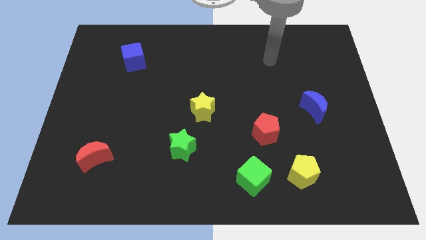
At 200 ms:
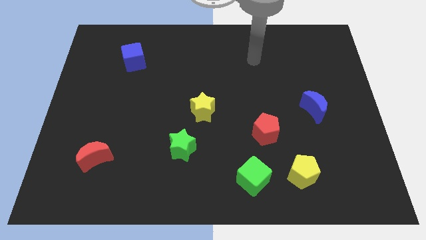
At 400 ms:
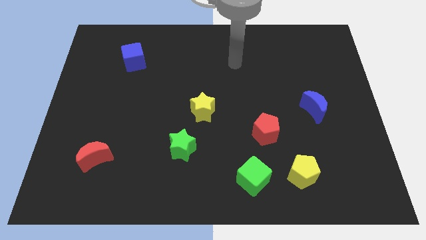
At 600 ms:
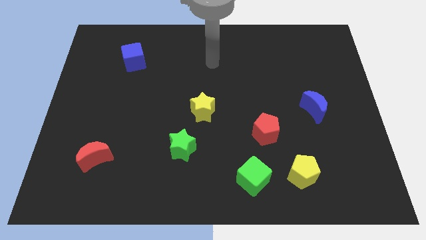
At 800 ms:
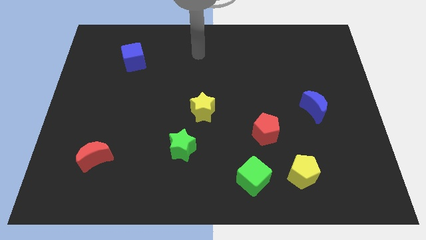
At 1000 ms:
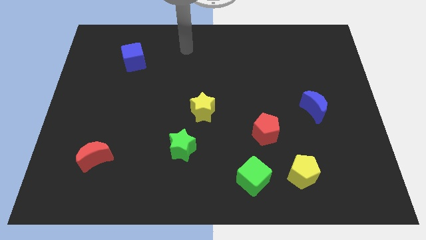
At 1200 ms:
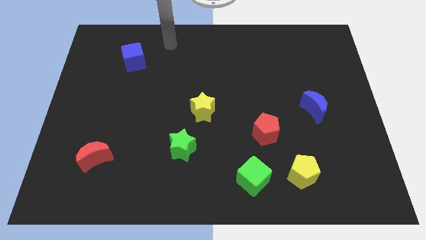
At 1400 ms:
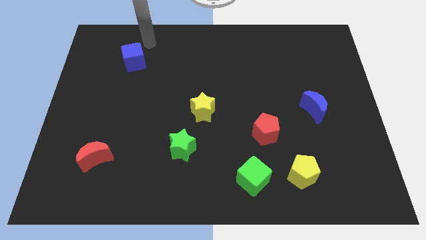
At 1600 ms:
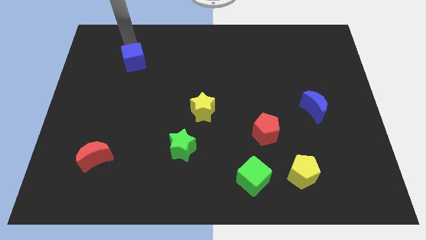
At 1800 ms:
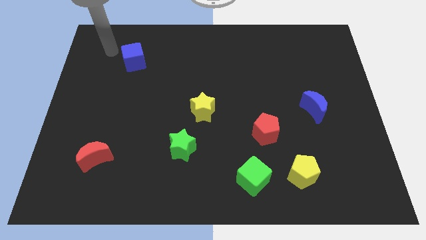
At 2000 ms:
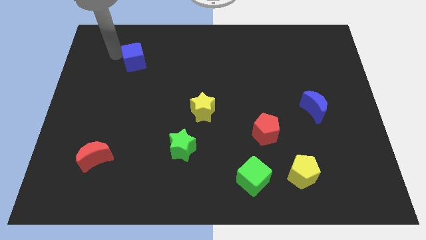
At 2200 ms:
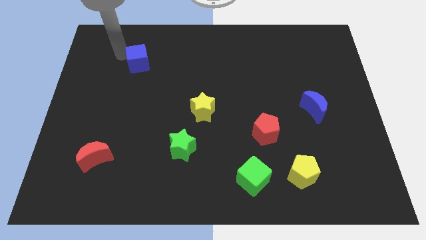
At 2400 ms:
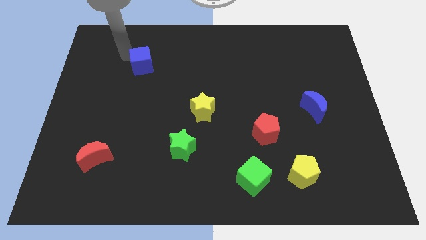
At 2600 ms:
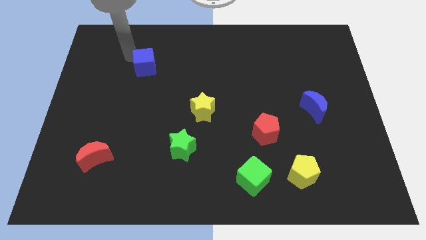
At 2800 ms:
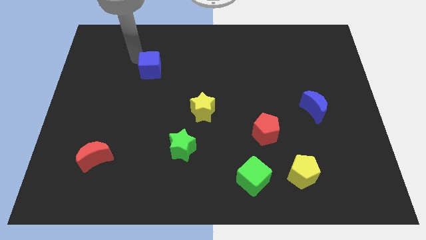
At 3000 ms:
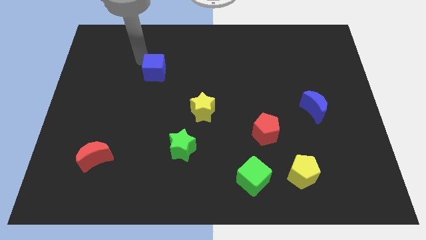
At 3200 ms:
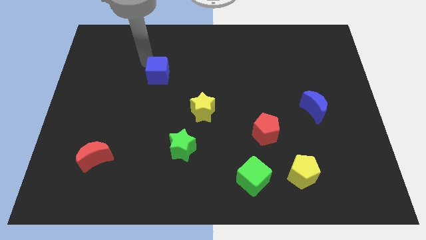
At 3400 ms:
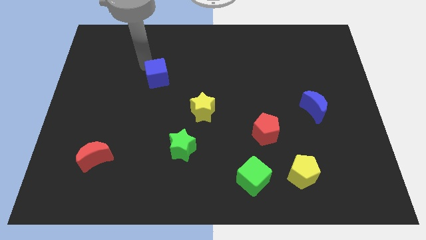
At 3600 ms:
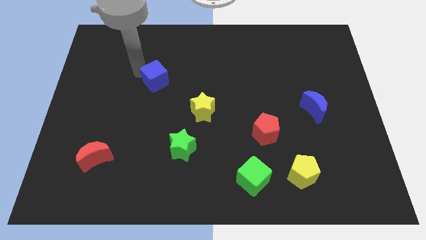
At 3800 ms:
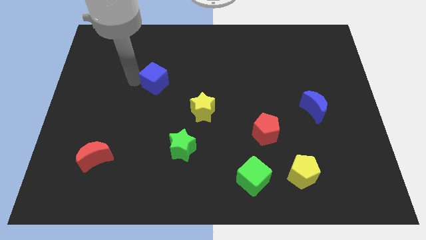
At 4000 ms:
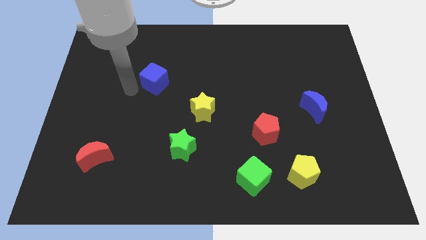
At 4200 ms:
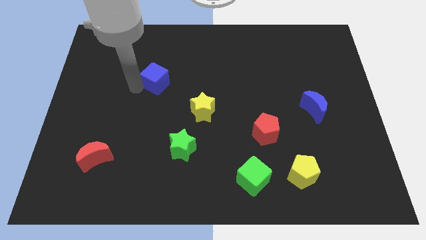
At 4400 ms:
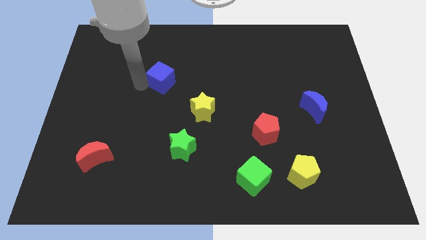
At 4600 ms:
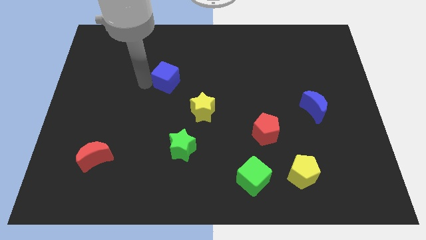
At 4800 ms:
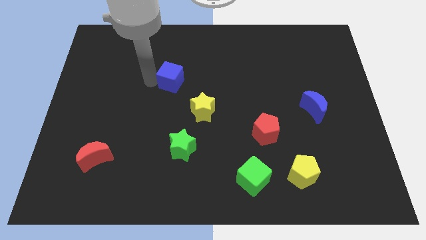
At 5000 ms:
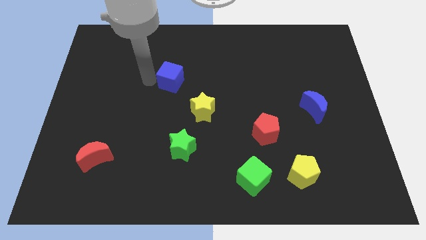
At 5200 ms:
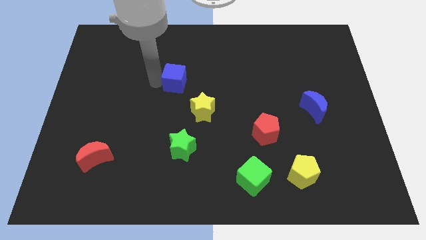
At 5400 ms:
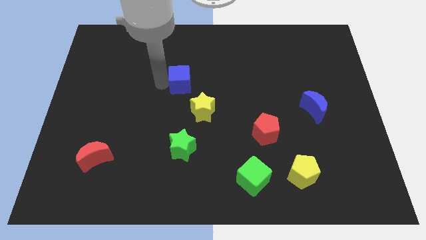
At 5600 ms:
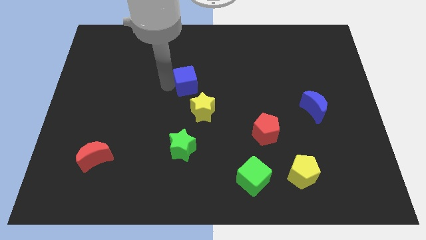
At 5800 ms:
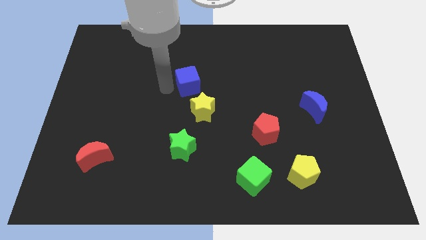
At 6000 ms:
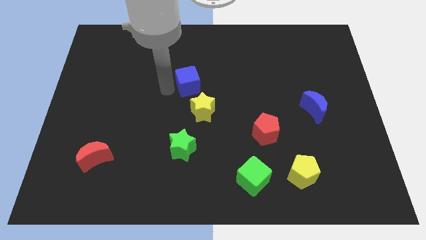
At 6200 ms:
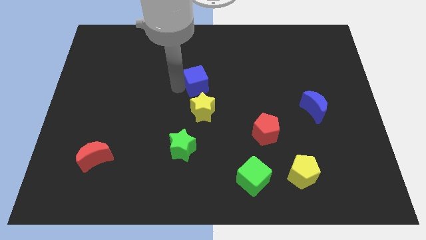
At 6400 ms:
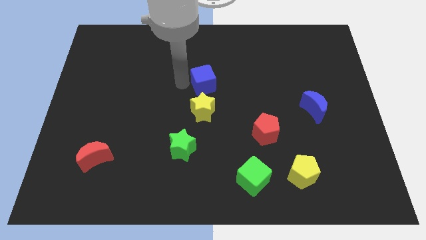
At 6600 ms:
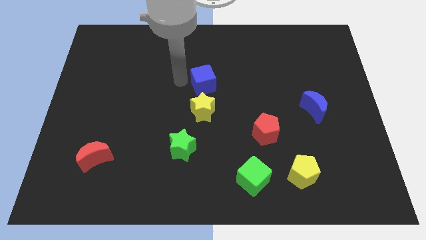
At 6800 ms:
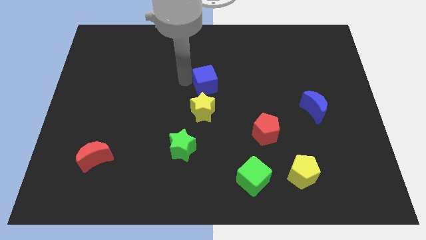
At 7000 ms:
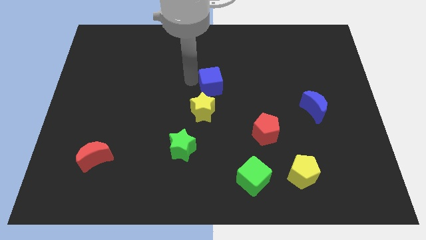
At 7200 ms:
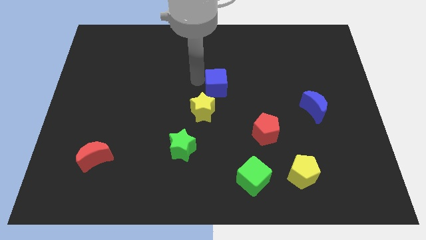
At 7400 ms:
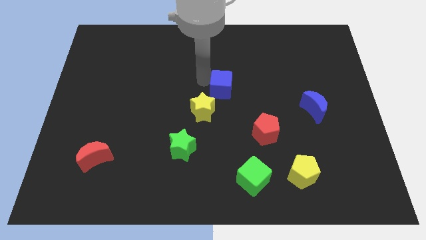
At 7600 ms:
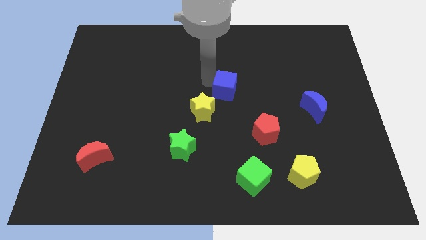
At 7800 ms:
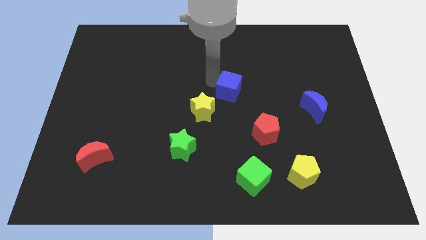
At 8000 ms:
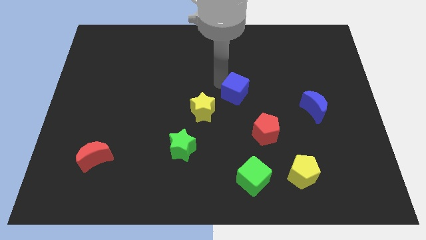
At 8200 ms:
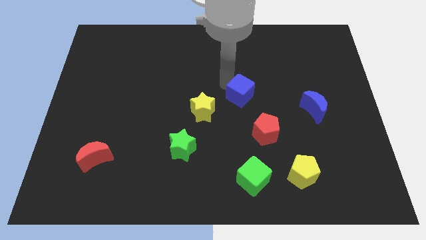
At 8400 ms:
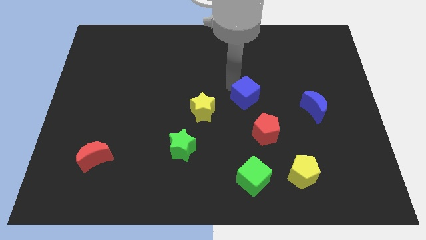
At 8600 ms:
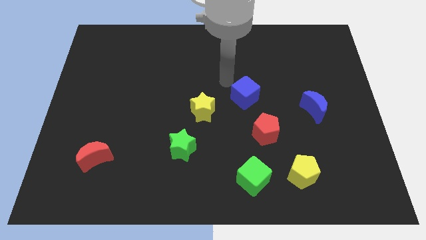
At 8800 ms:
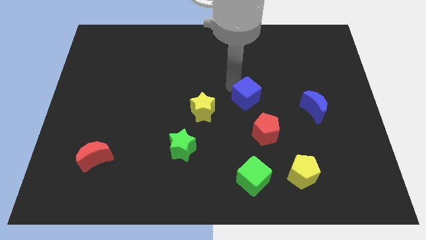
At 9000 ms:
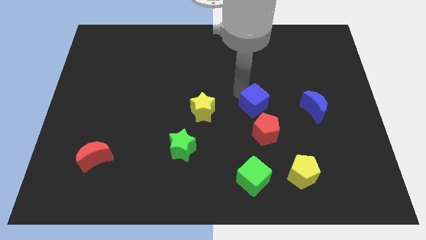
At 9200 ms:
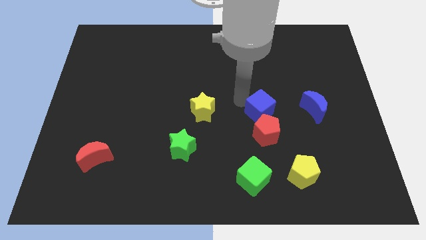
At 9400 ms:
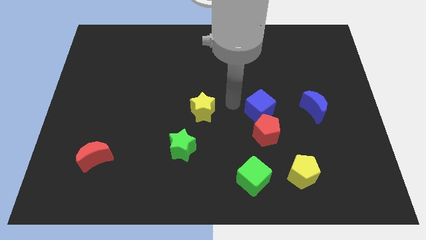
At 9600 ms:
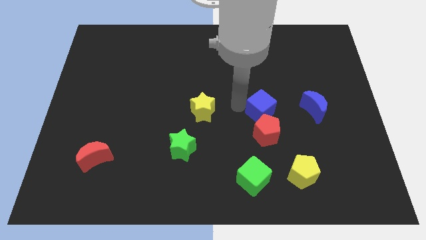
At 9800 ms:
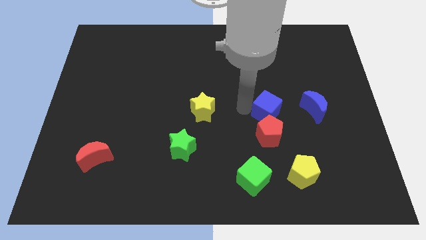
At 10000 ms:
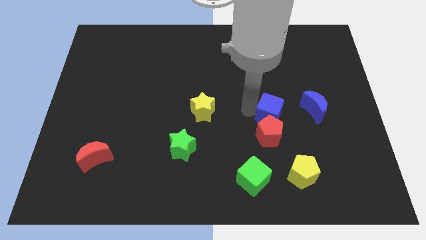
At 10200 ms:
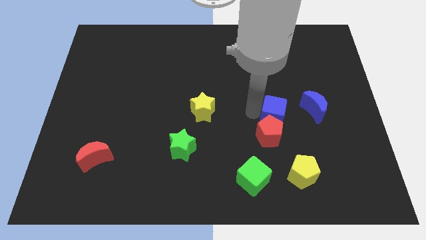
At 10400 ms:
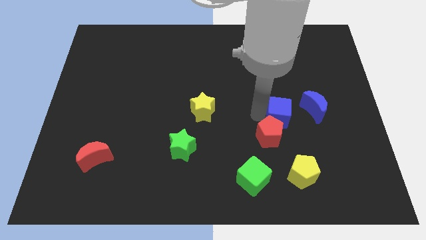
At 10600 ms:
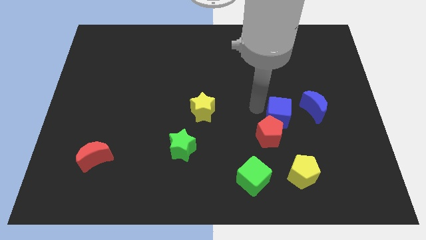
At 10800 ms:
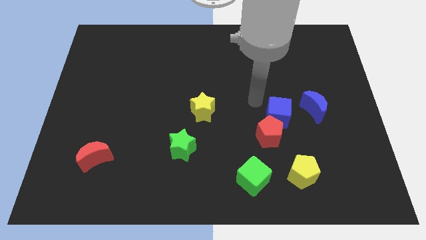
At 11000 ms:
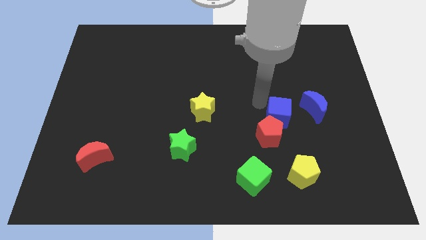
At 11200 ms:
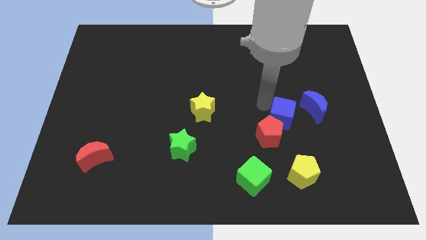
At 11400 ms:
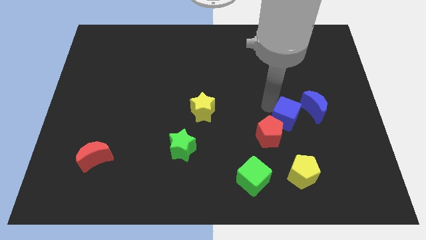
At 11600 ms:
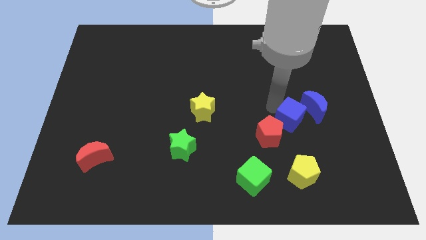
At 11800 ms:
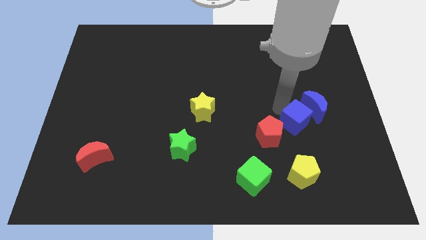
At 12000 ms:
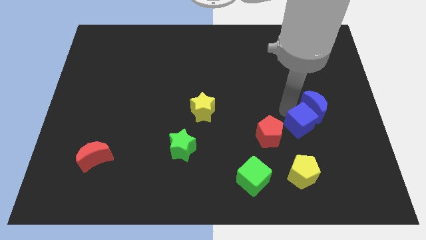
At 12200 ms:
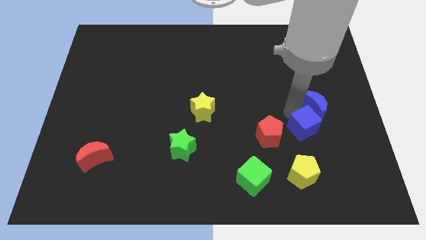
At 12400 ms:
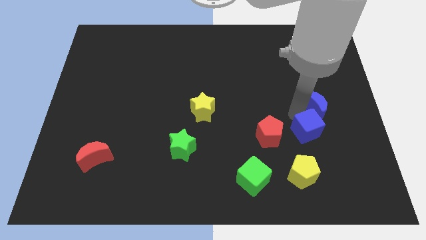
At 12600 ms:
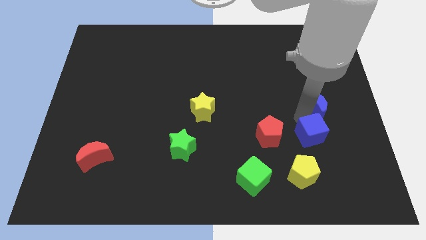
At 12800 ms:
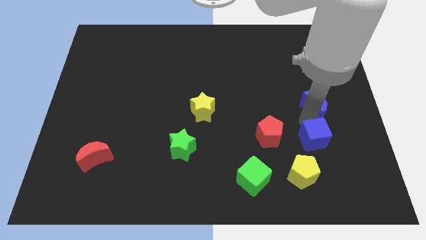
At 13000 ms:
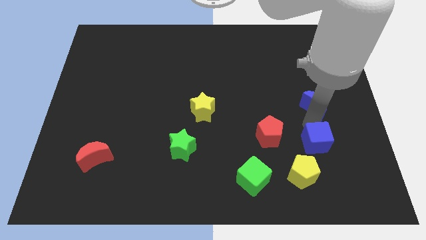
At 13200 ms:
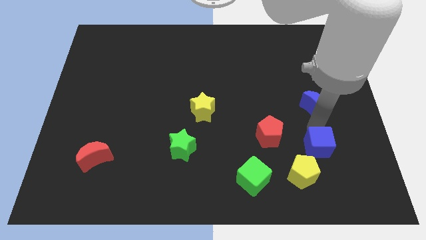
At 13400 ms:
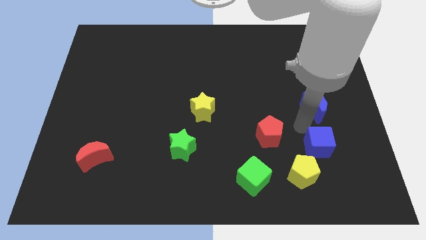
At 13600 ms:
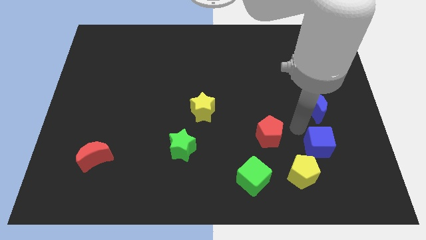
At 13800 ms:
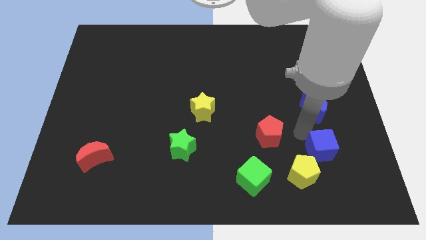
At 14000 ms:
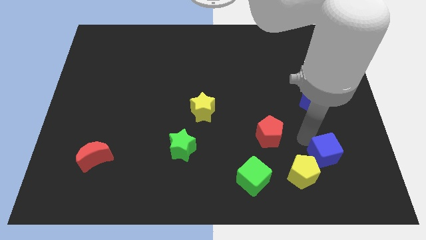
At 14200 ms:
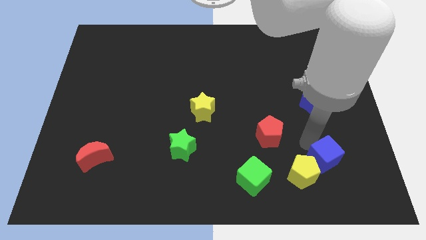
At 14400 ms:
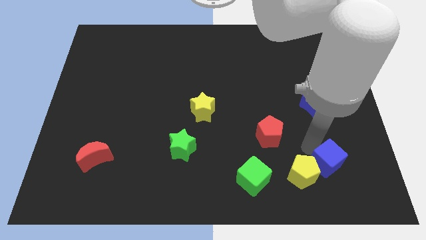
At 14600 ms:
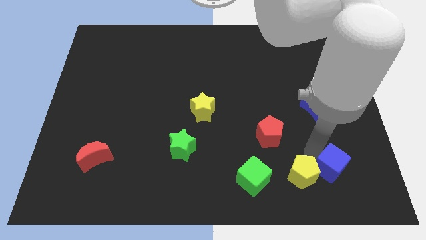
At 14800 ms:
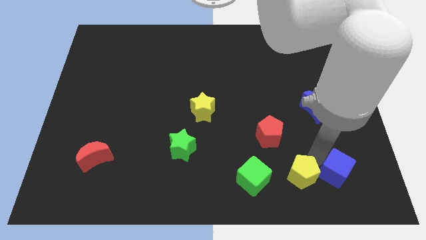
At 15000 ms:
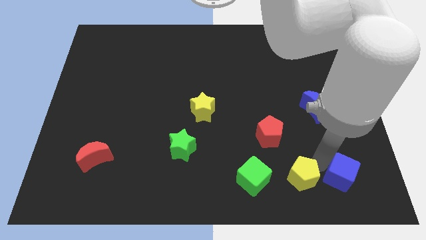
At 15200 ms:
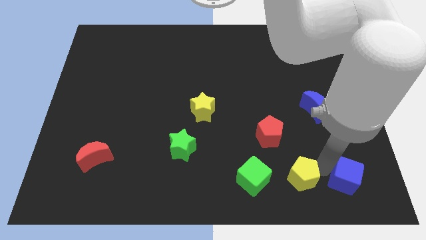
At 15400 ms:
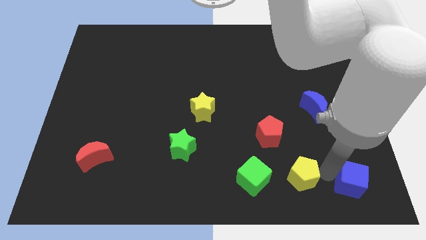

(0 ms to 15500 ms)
push the blue cube to the lower right corner
